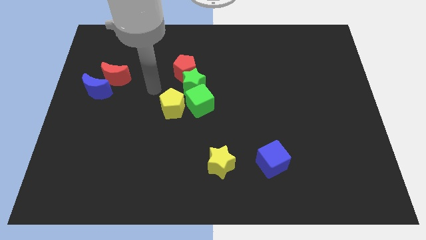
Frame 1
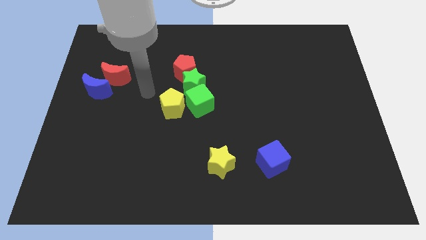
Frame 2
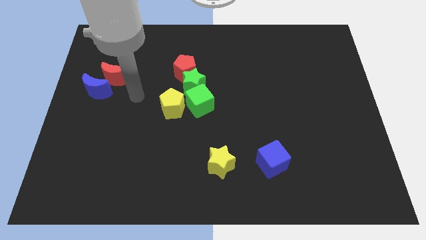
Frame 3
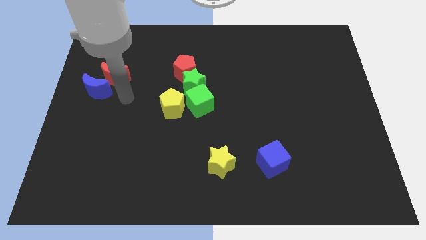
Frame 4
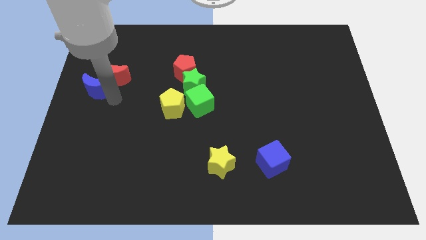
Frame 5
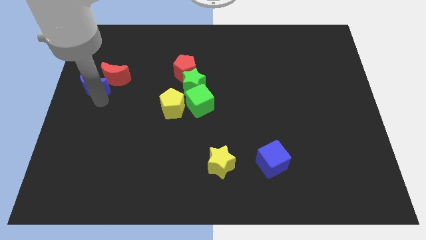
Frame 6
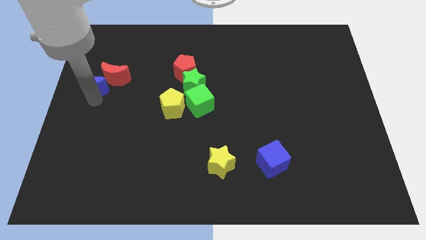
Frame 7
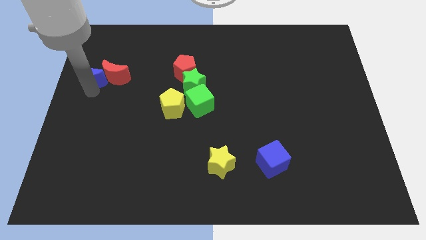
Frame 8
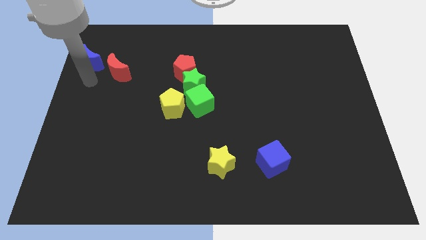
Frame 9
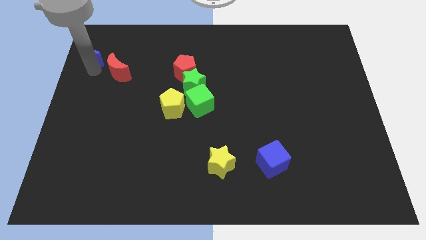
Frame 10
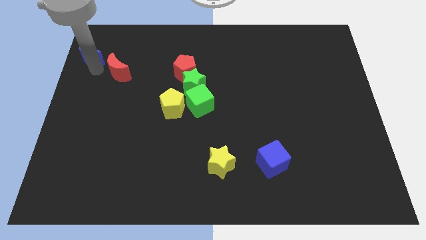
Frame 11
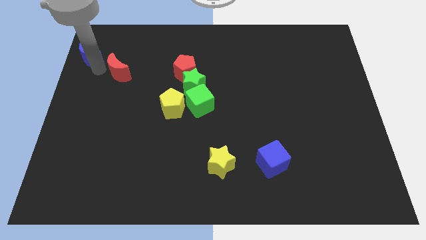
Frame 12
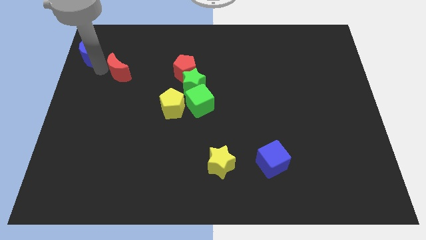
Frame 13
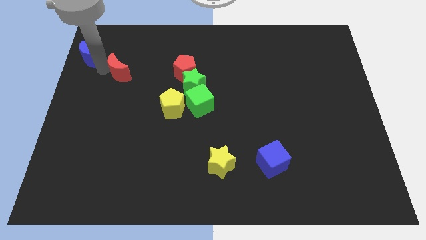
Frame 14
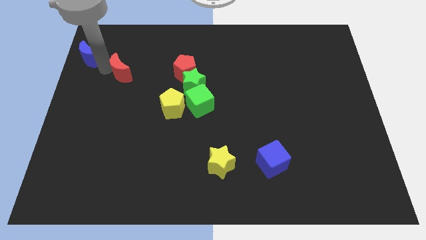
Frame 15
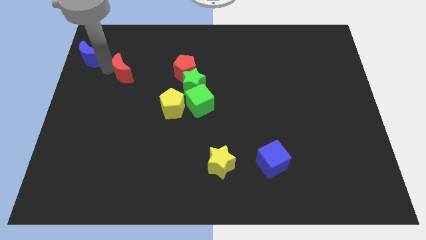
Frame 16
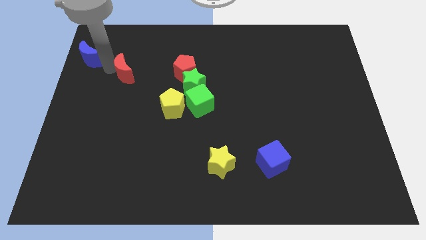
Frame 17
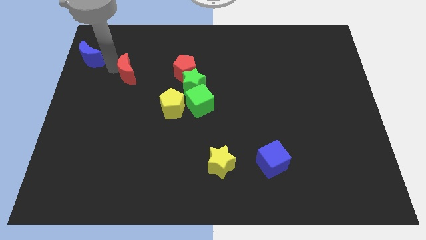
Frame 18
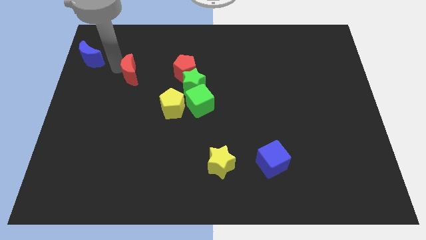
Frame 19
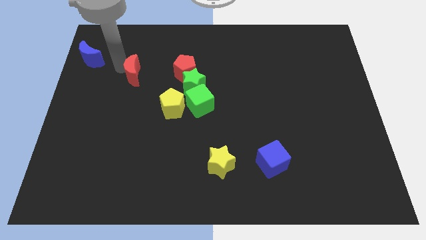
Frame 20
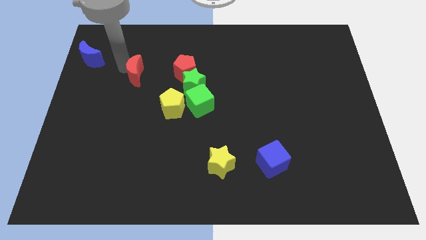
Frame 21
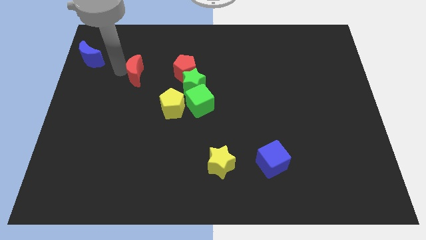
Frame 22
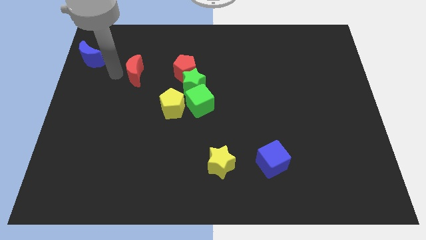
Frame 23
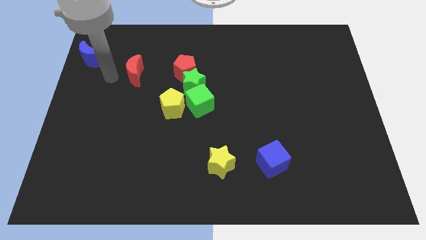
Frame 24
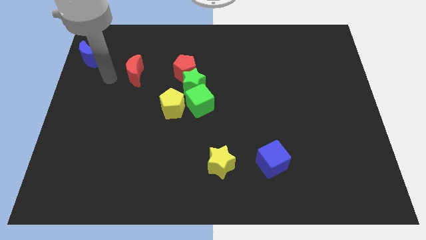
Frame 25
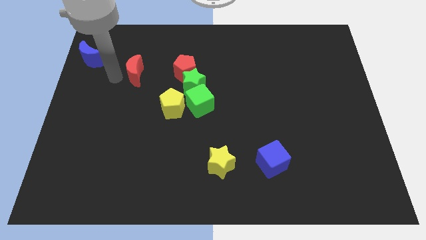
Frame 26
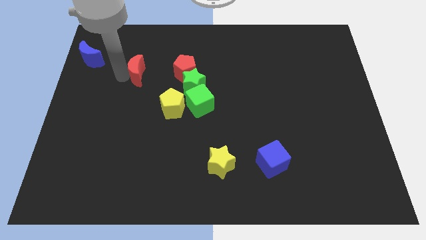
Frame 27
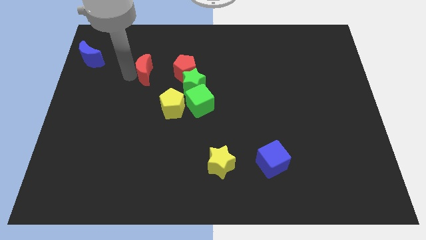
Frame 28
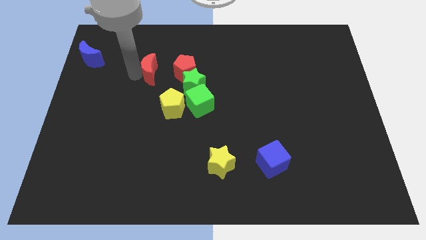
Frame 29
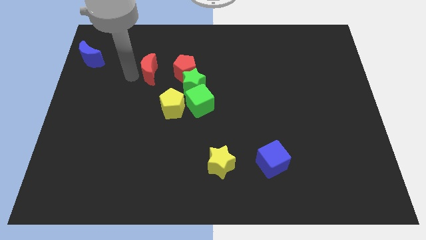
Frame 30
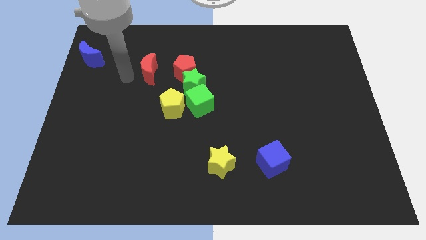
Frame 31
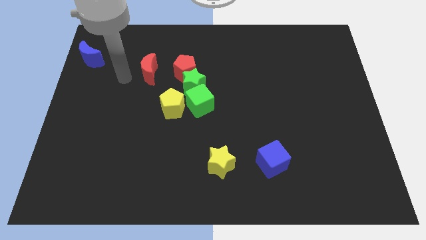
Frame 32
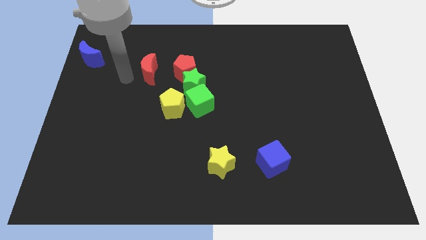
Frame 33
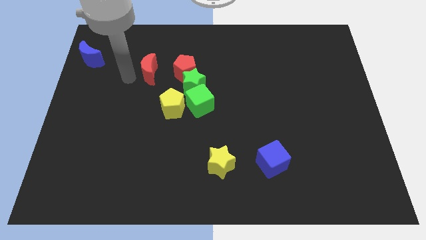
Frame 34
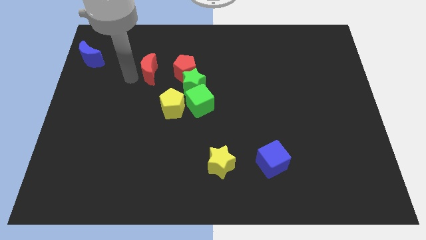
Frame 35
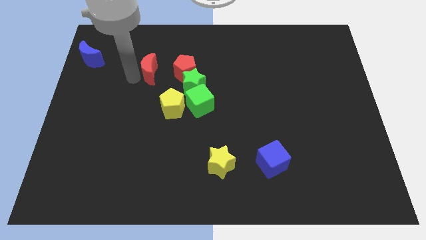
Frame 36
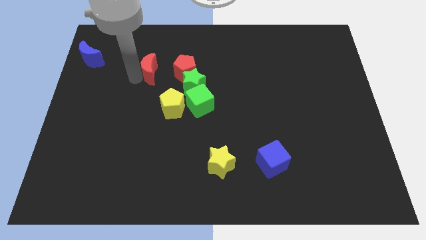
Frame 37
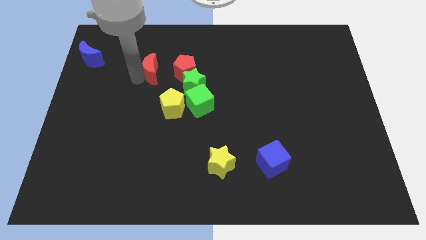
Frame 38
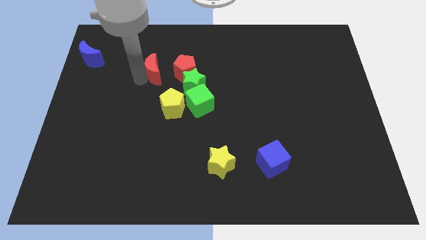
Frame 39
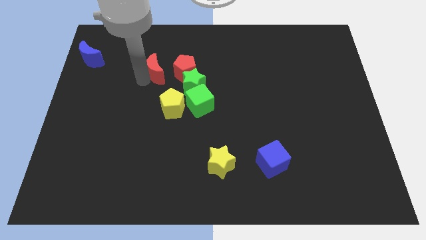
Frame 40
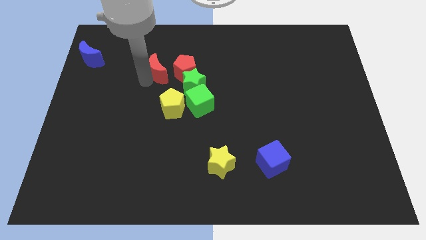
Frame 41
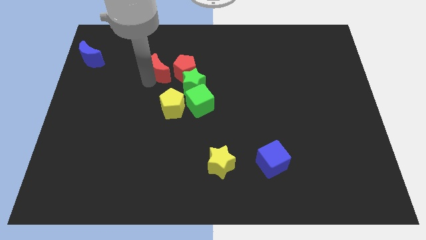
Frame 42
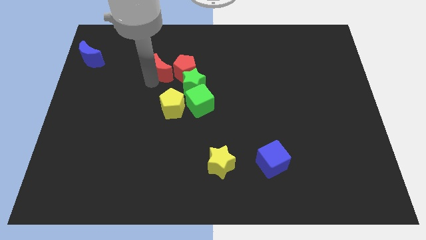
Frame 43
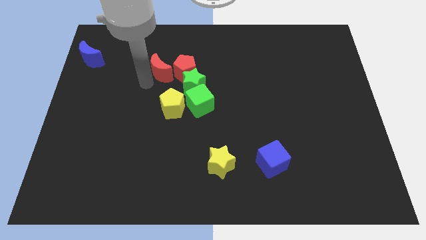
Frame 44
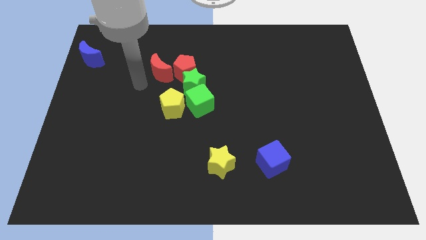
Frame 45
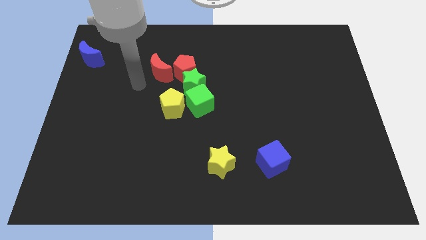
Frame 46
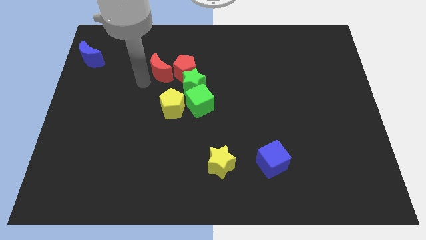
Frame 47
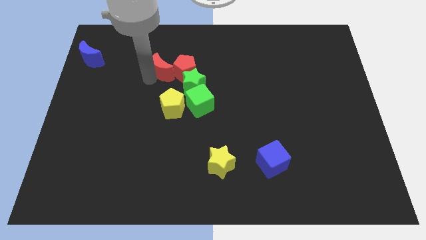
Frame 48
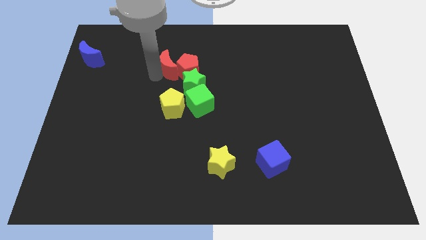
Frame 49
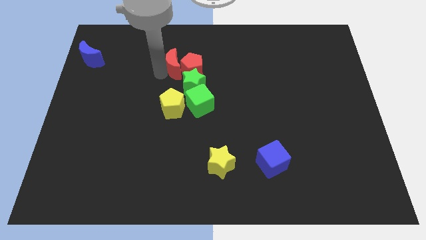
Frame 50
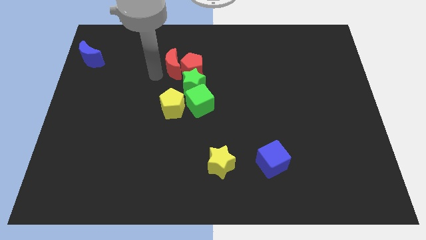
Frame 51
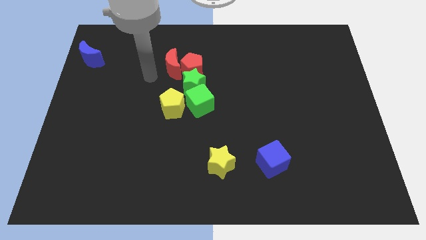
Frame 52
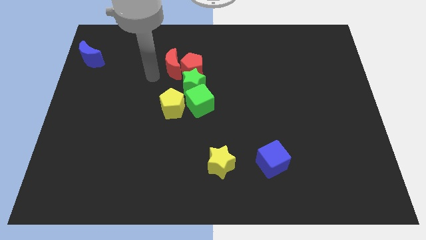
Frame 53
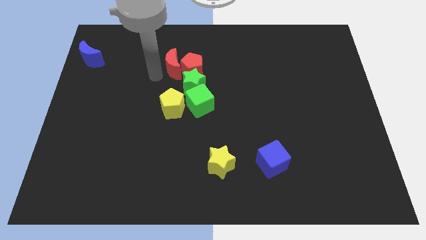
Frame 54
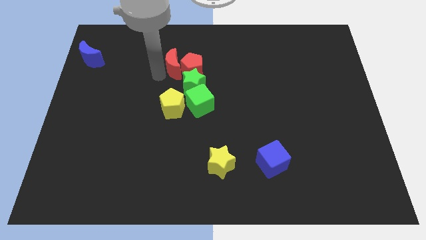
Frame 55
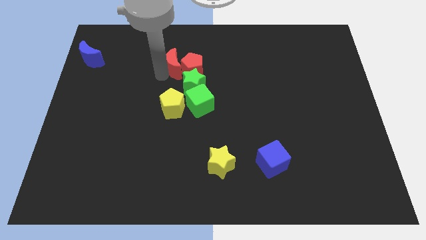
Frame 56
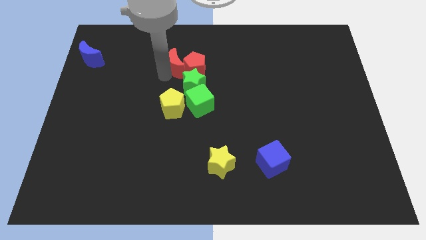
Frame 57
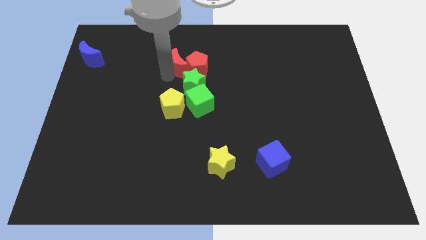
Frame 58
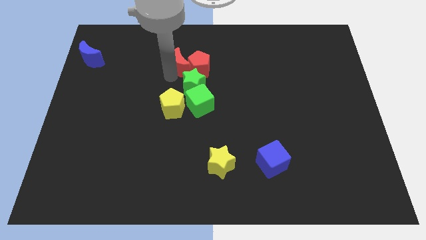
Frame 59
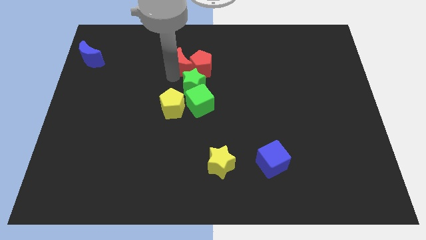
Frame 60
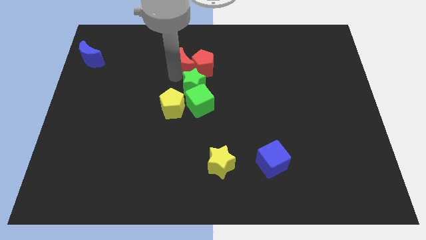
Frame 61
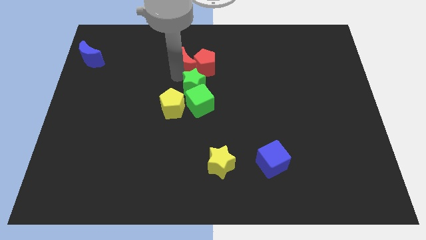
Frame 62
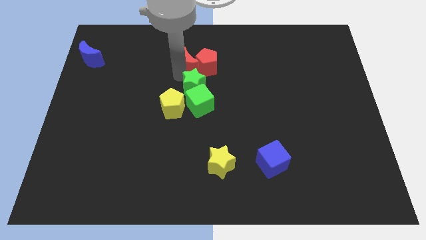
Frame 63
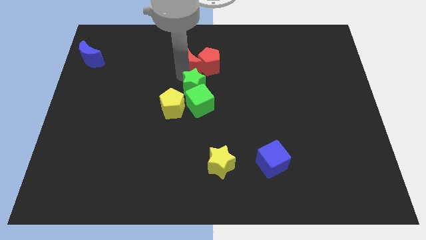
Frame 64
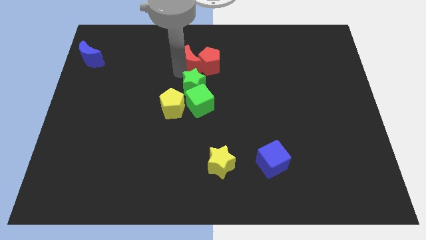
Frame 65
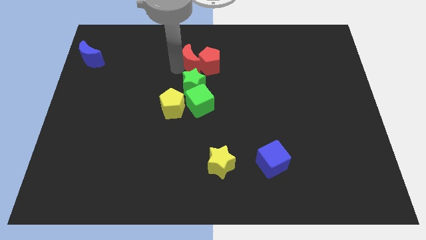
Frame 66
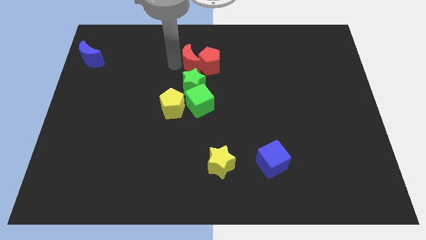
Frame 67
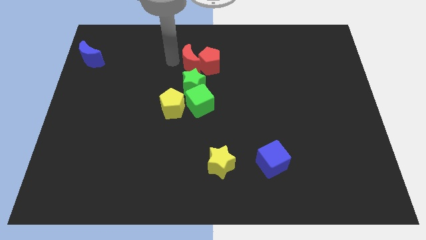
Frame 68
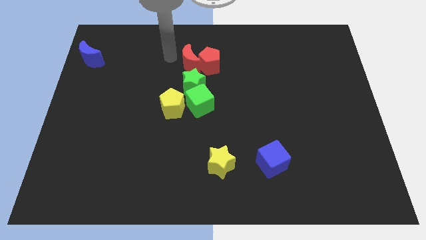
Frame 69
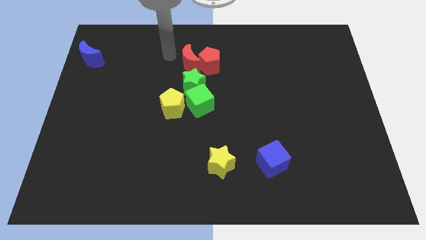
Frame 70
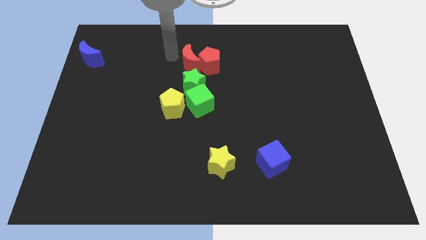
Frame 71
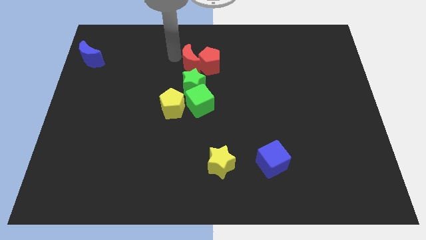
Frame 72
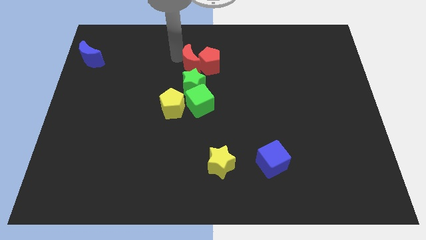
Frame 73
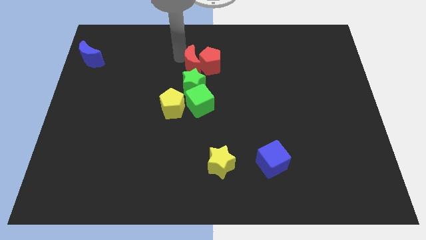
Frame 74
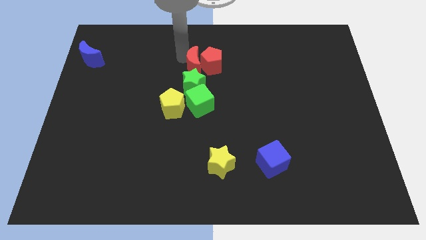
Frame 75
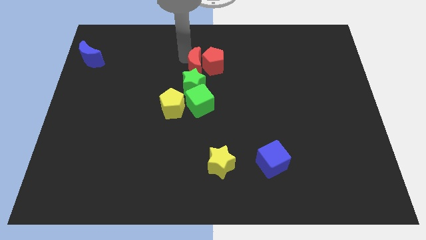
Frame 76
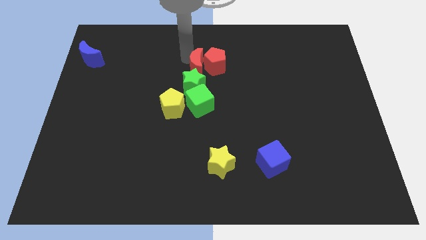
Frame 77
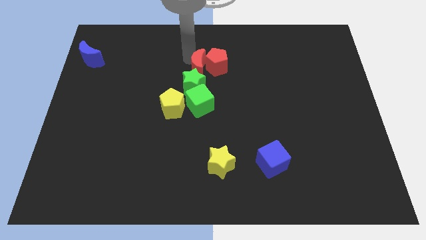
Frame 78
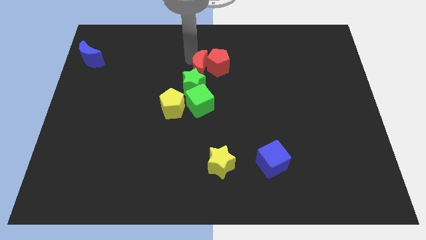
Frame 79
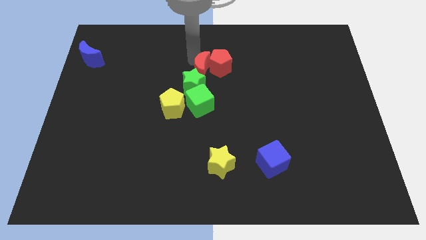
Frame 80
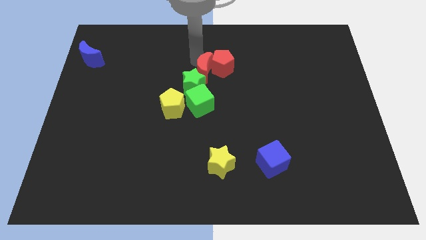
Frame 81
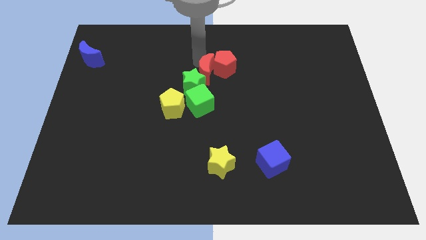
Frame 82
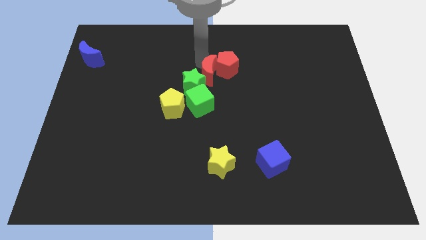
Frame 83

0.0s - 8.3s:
move the red moon to the right of the green star
